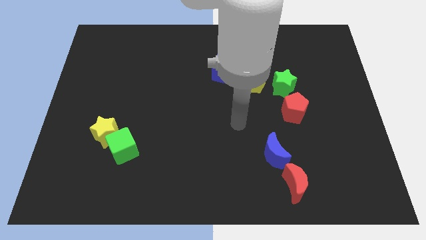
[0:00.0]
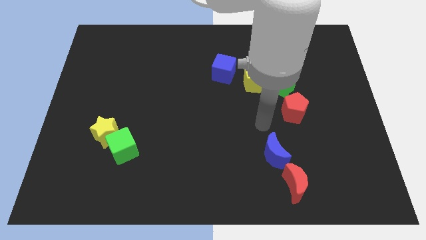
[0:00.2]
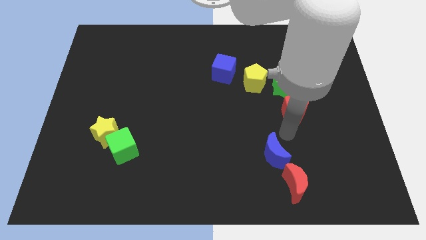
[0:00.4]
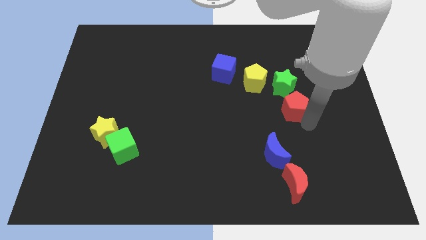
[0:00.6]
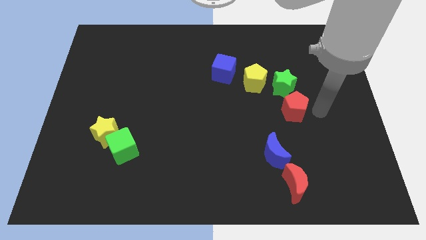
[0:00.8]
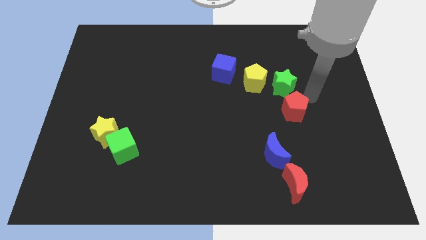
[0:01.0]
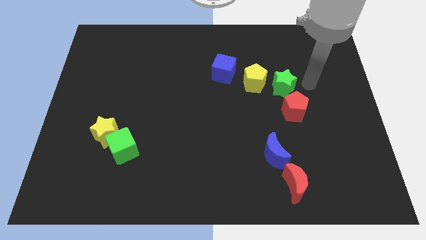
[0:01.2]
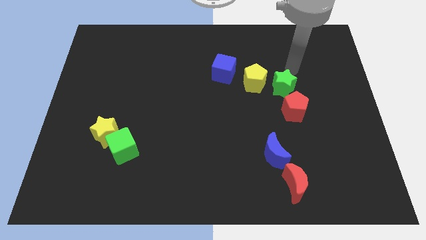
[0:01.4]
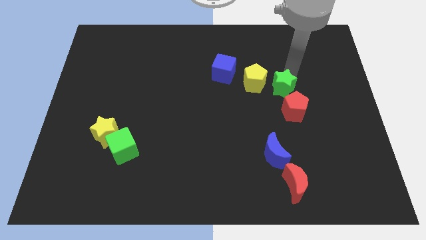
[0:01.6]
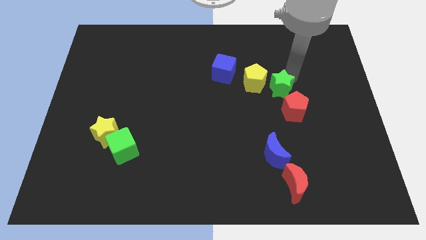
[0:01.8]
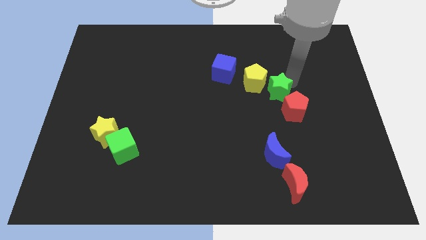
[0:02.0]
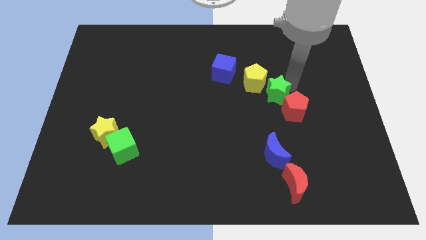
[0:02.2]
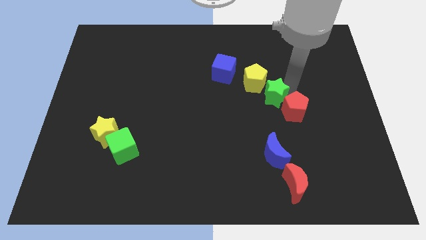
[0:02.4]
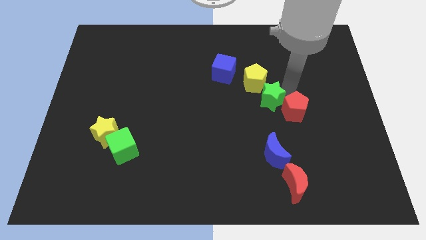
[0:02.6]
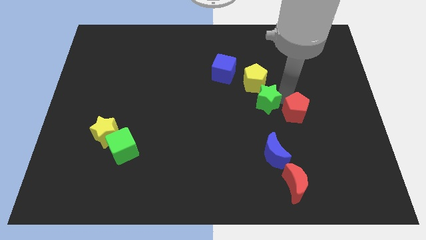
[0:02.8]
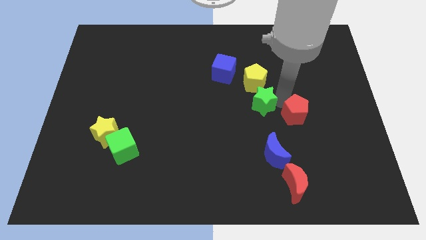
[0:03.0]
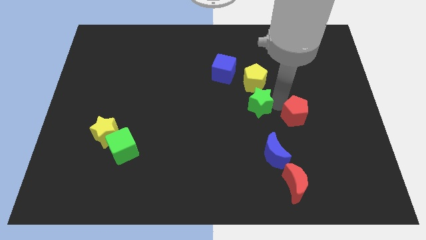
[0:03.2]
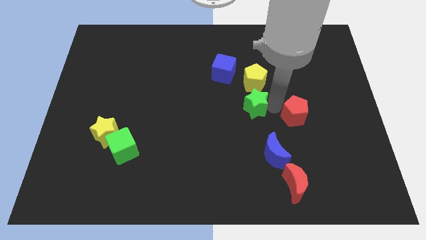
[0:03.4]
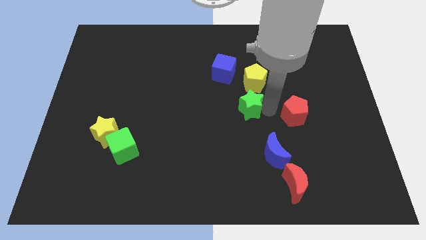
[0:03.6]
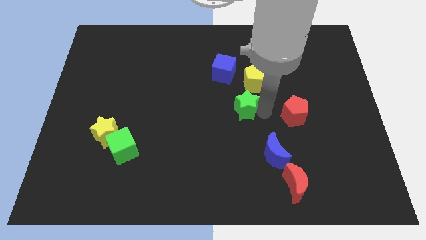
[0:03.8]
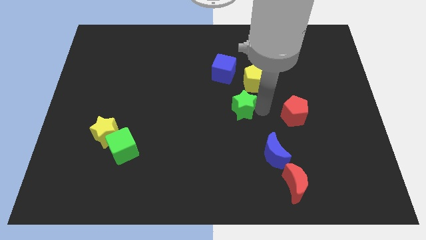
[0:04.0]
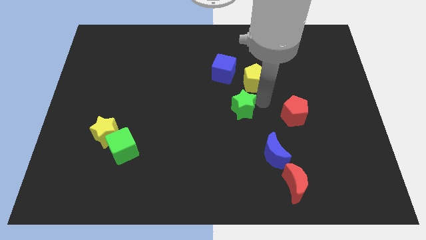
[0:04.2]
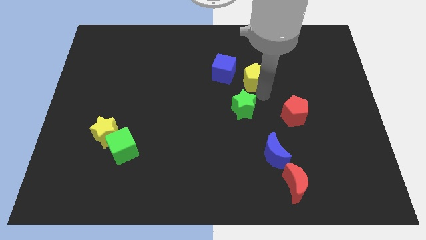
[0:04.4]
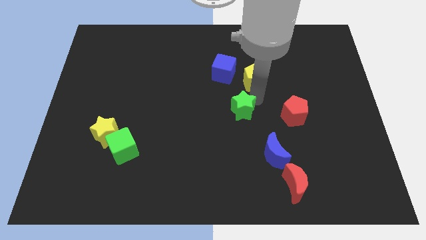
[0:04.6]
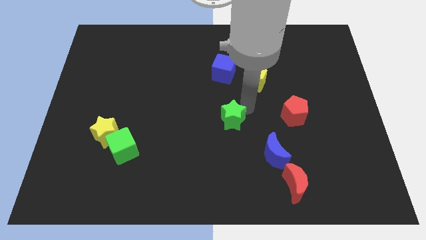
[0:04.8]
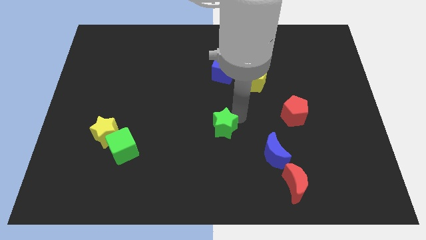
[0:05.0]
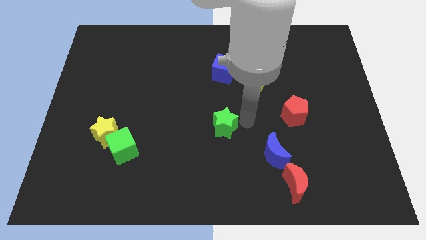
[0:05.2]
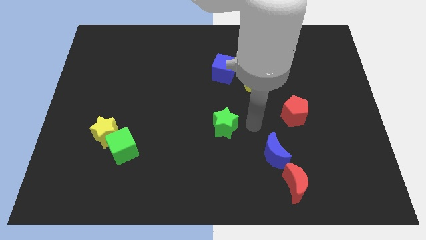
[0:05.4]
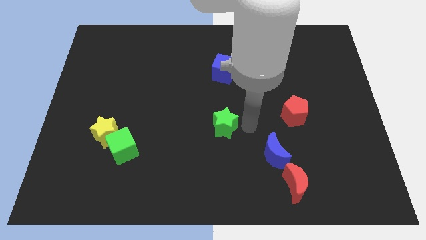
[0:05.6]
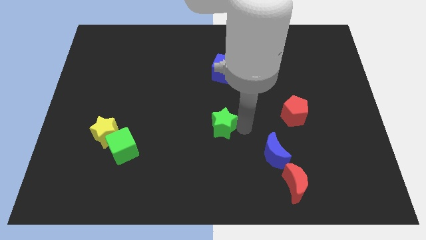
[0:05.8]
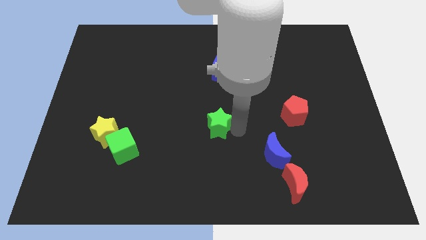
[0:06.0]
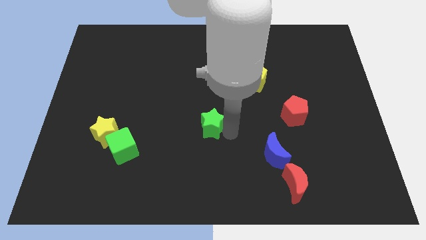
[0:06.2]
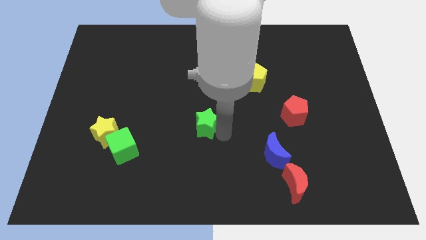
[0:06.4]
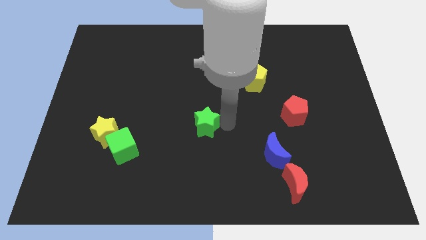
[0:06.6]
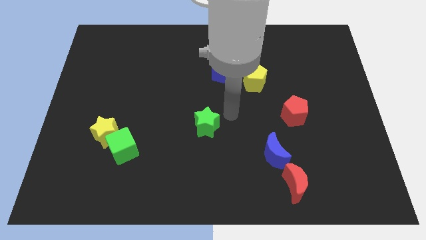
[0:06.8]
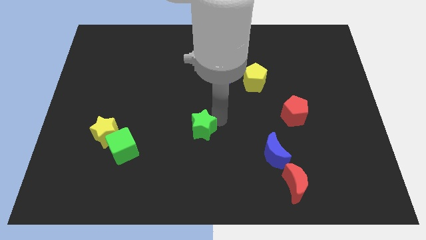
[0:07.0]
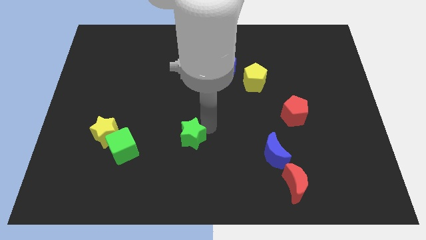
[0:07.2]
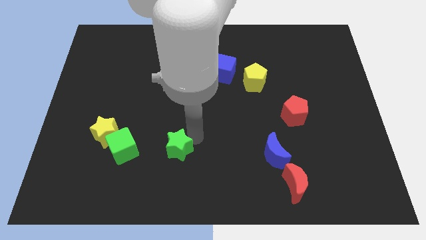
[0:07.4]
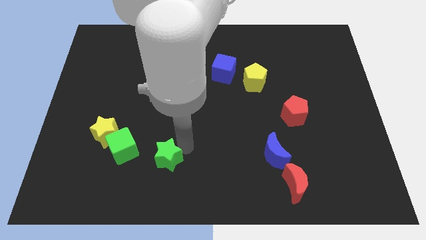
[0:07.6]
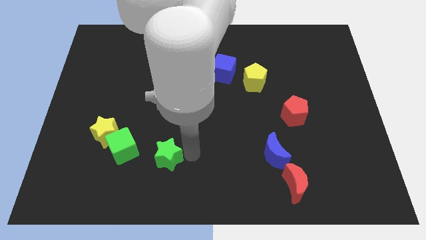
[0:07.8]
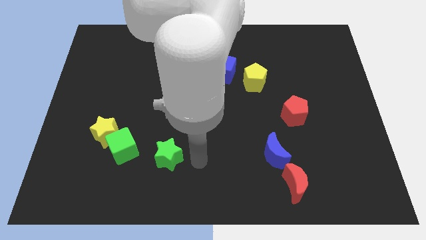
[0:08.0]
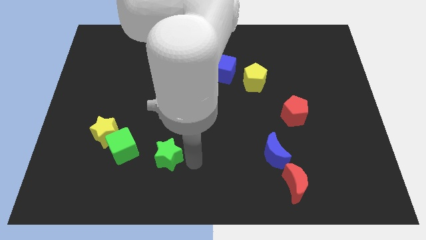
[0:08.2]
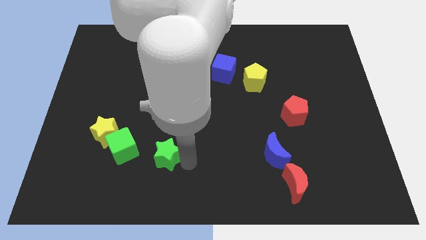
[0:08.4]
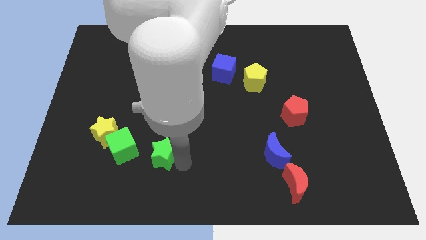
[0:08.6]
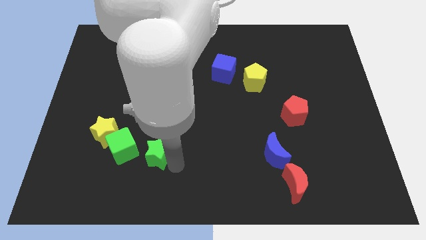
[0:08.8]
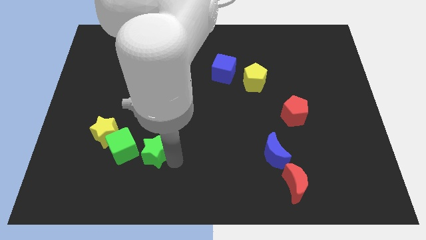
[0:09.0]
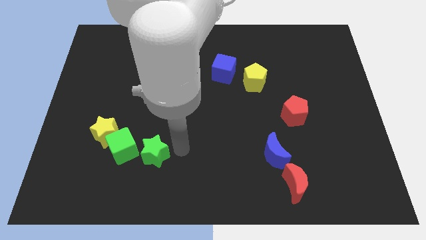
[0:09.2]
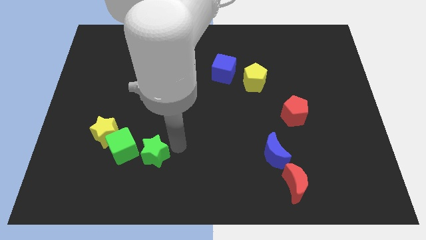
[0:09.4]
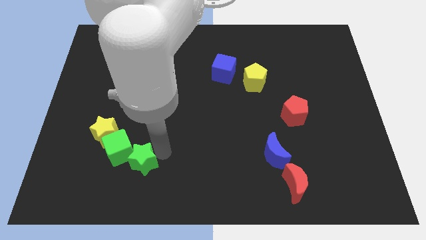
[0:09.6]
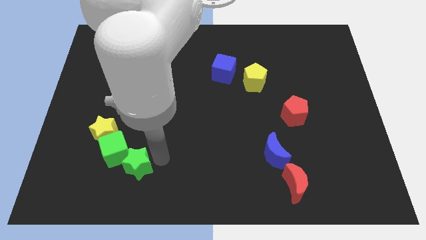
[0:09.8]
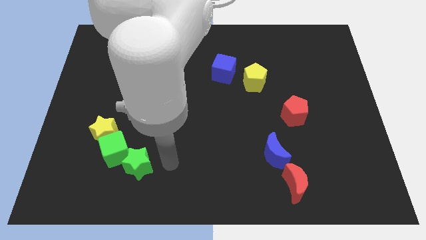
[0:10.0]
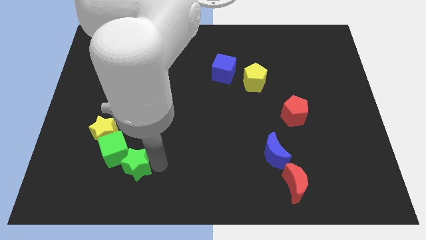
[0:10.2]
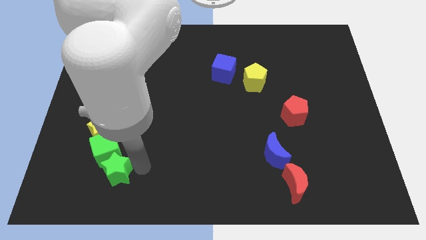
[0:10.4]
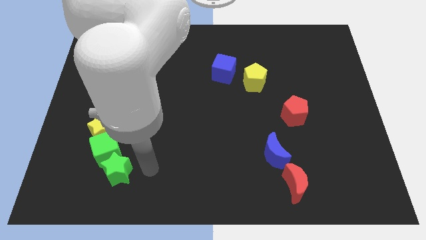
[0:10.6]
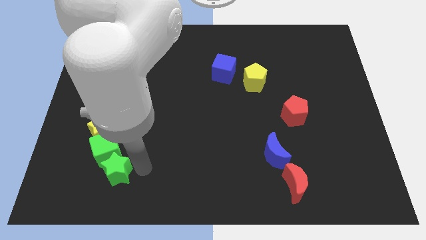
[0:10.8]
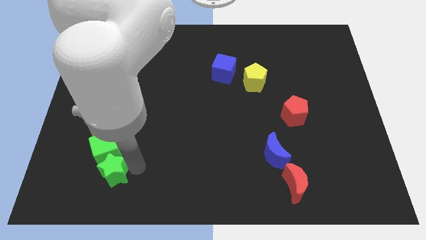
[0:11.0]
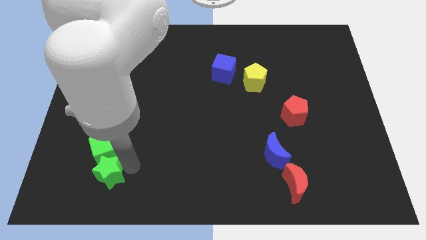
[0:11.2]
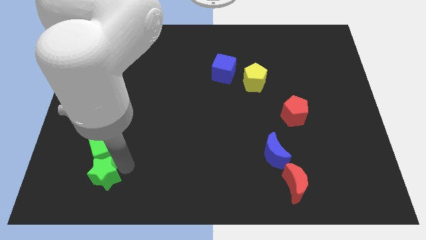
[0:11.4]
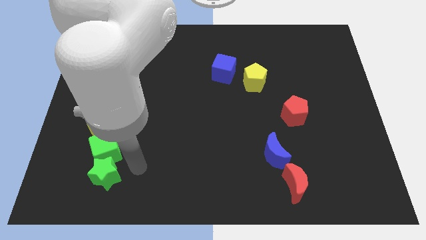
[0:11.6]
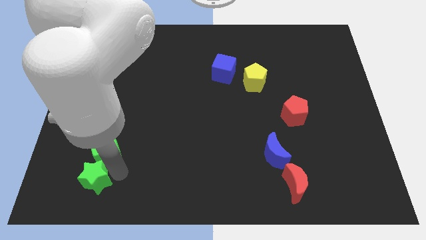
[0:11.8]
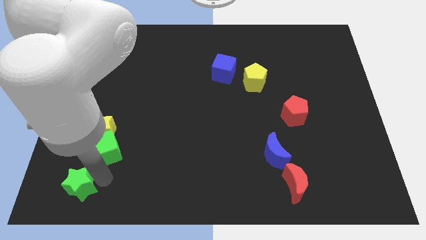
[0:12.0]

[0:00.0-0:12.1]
move the green star to the lower left corner
